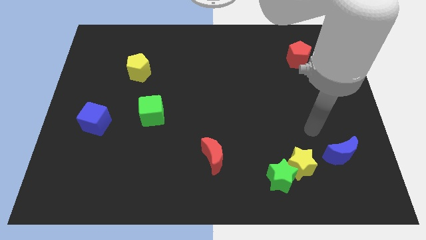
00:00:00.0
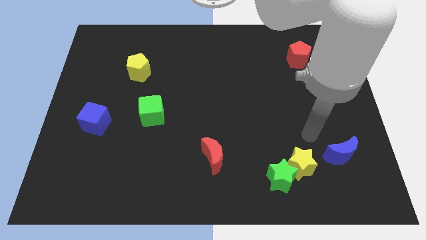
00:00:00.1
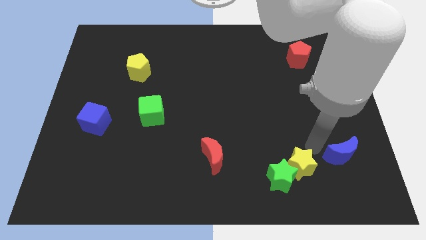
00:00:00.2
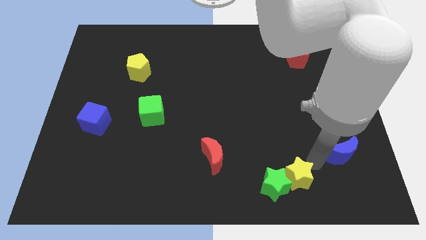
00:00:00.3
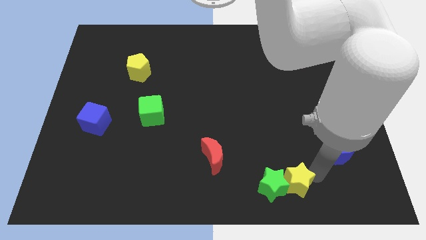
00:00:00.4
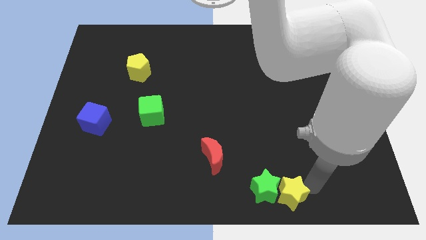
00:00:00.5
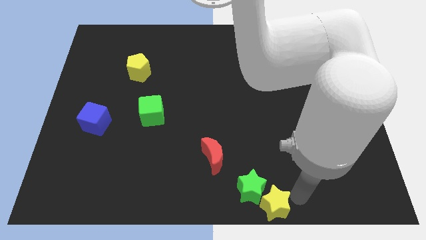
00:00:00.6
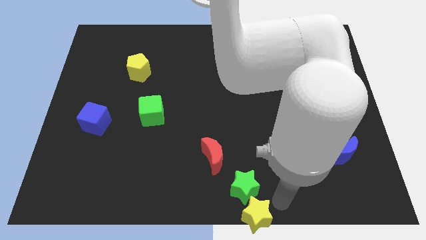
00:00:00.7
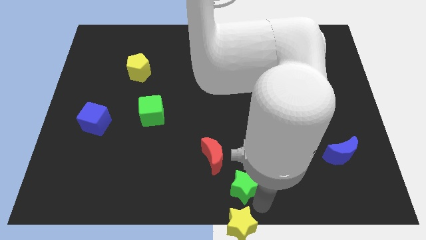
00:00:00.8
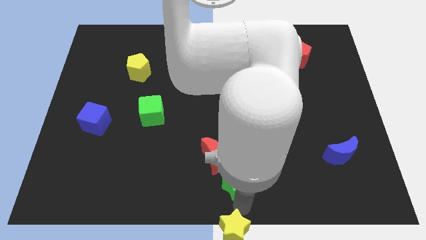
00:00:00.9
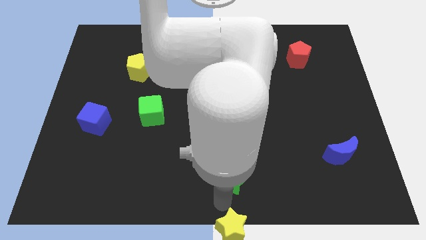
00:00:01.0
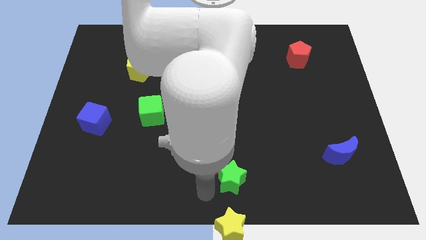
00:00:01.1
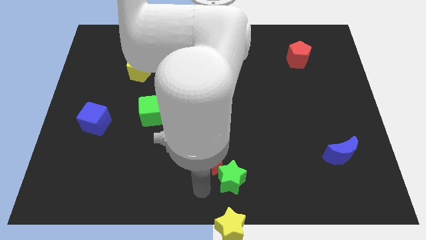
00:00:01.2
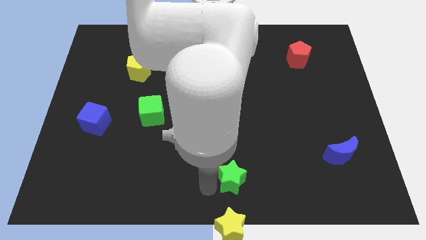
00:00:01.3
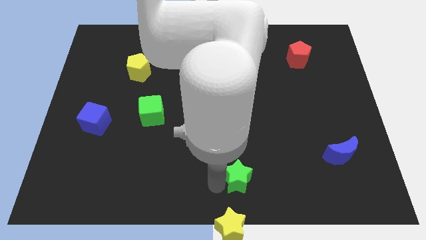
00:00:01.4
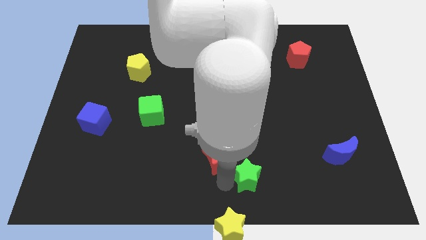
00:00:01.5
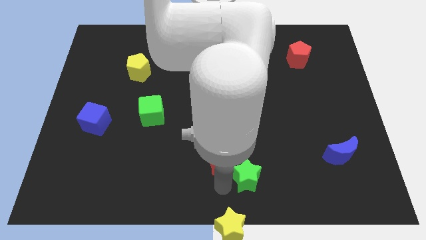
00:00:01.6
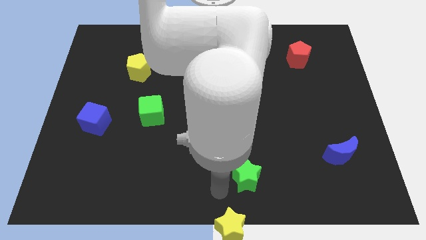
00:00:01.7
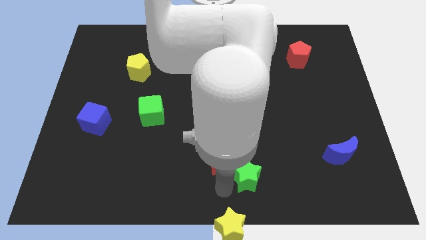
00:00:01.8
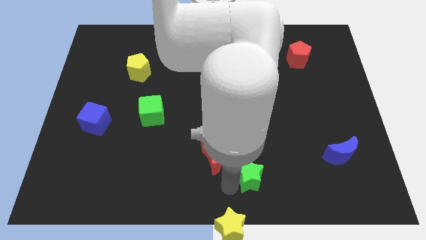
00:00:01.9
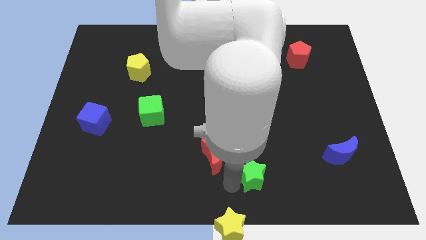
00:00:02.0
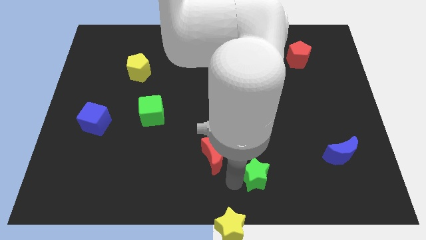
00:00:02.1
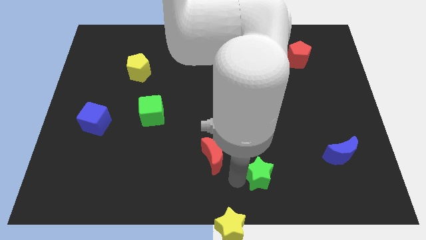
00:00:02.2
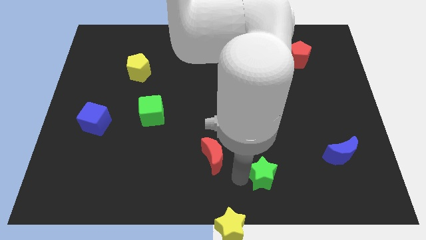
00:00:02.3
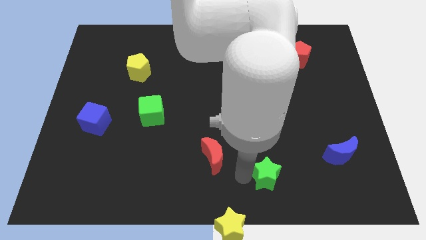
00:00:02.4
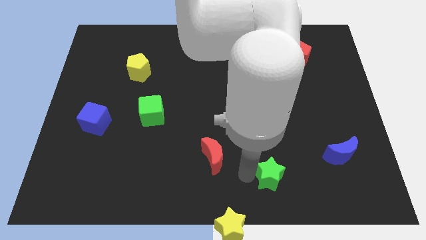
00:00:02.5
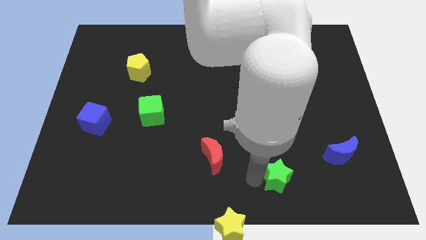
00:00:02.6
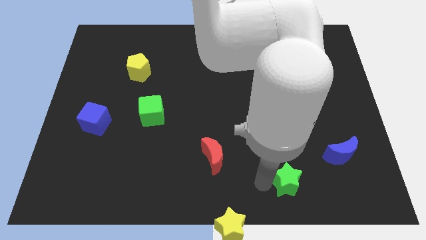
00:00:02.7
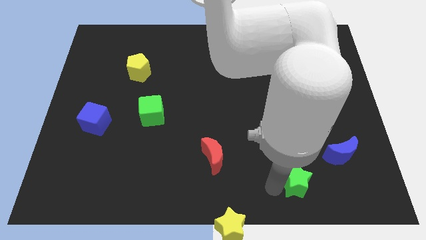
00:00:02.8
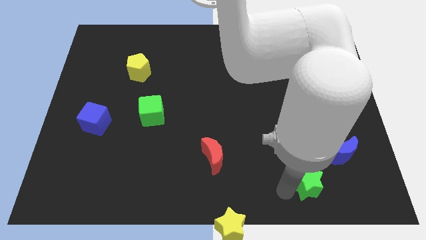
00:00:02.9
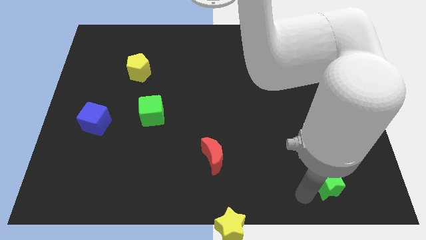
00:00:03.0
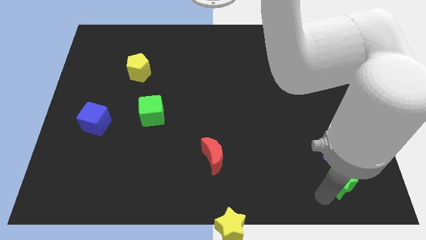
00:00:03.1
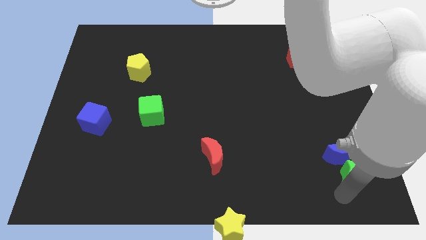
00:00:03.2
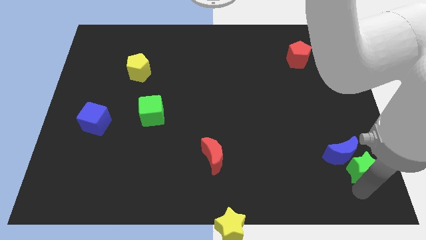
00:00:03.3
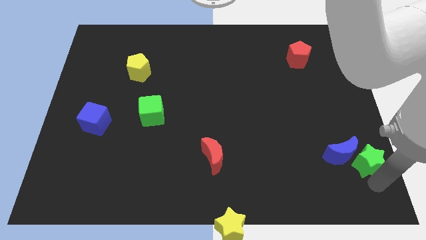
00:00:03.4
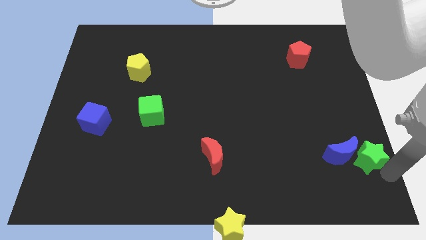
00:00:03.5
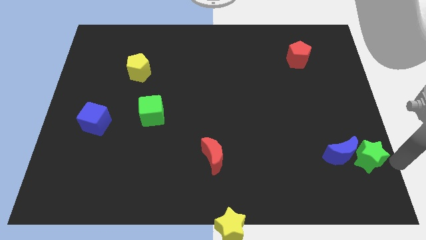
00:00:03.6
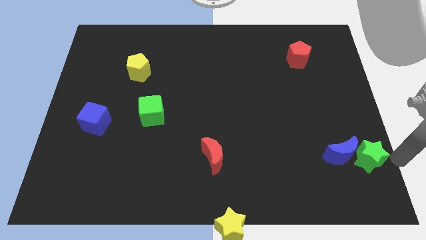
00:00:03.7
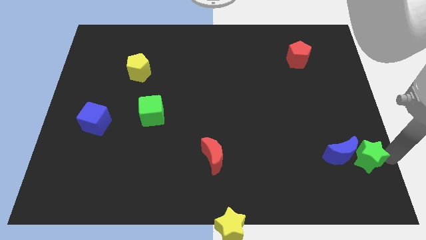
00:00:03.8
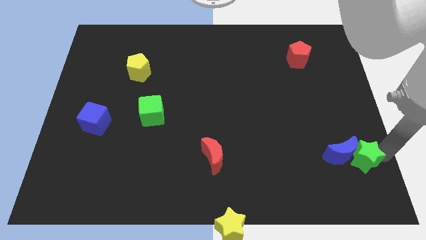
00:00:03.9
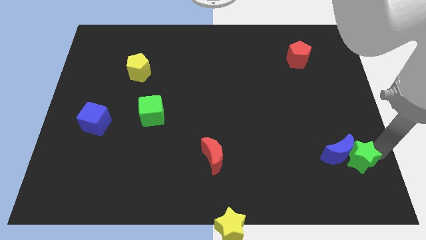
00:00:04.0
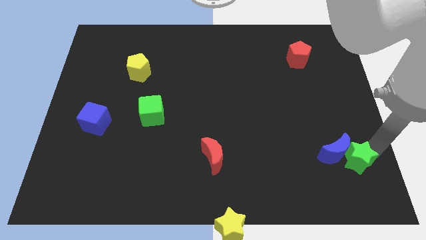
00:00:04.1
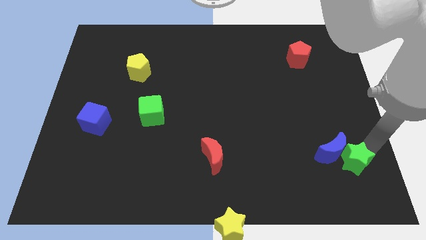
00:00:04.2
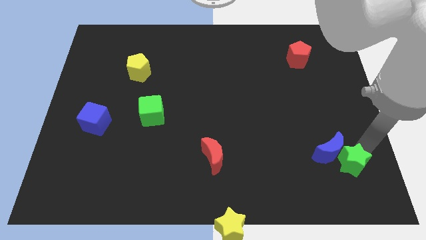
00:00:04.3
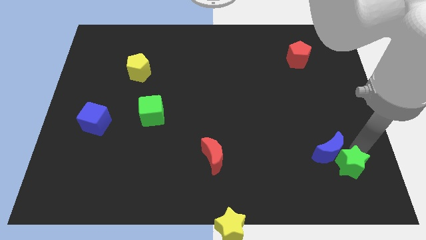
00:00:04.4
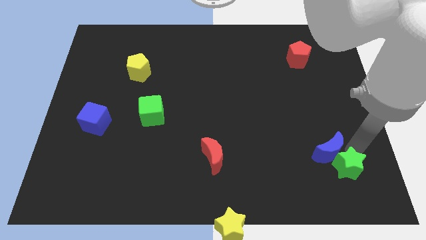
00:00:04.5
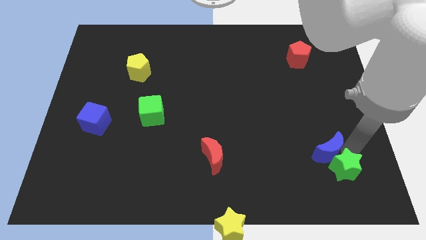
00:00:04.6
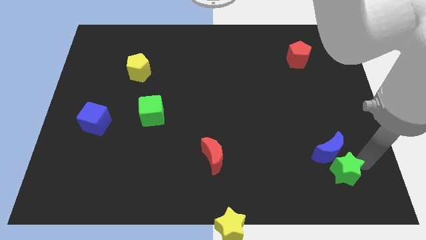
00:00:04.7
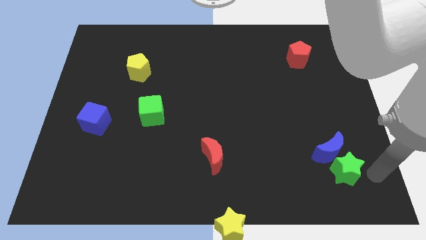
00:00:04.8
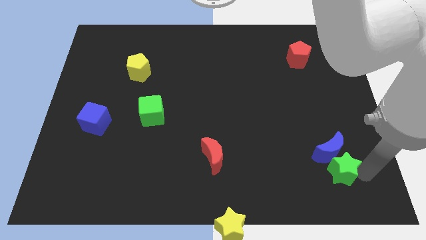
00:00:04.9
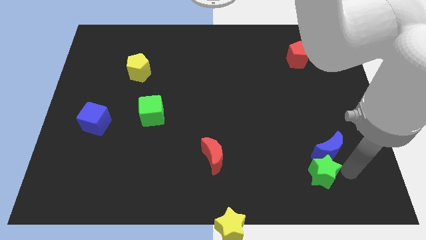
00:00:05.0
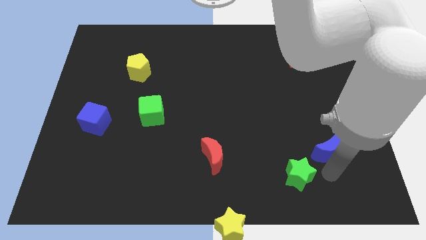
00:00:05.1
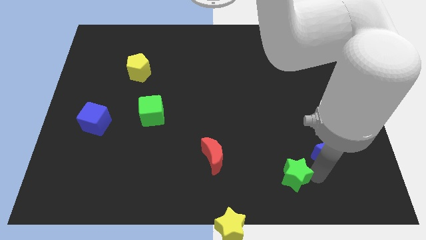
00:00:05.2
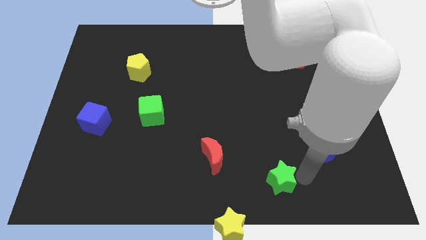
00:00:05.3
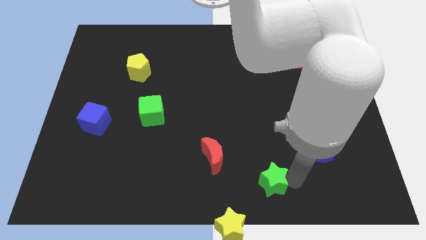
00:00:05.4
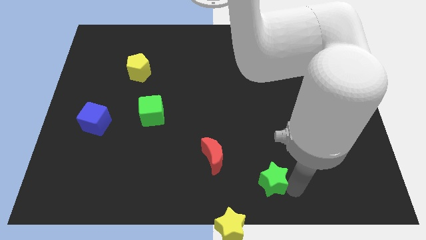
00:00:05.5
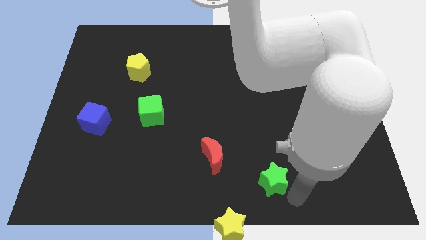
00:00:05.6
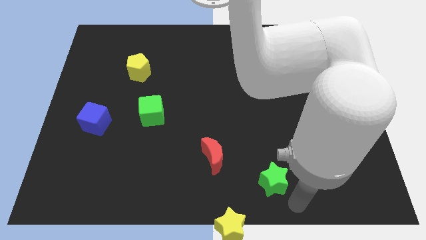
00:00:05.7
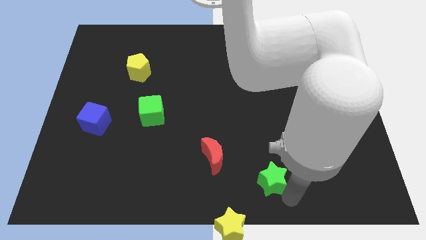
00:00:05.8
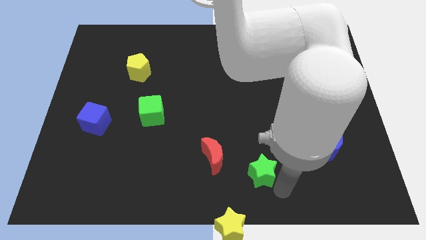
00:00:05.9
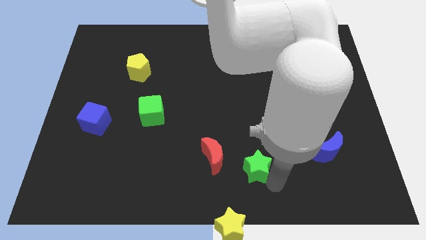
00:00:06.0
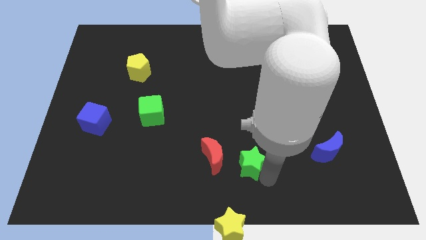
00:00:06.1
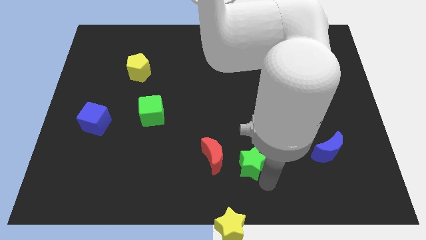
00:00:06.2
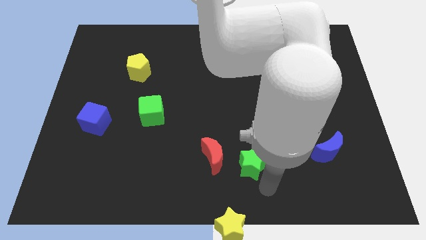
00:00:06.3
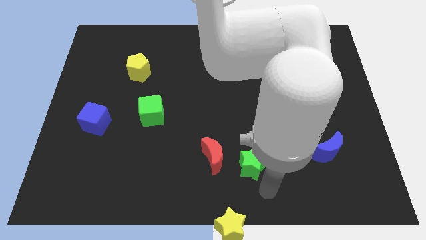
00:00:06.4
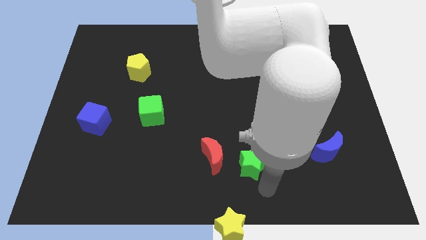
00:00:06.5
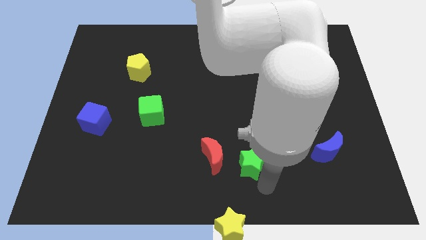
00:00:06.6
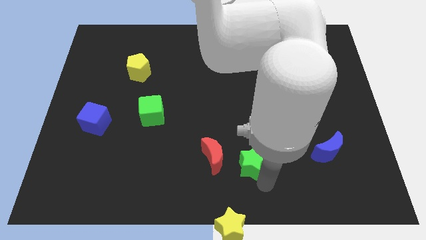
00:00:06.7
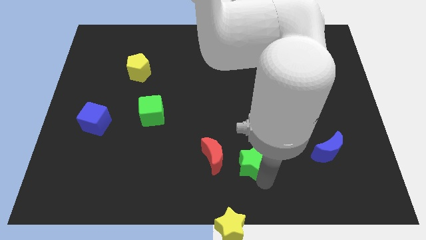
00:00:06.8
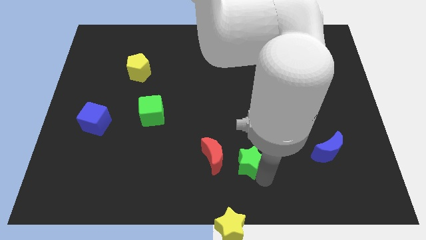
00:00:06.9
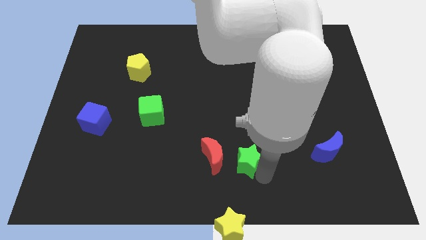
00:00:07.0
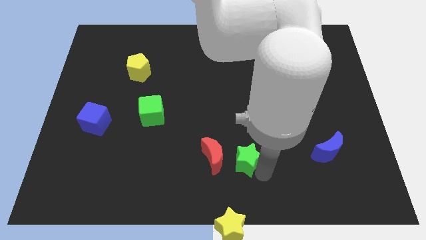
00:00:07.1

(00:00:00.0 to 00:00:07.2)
push the green star somewhat up and then to the left

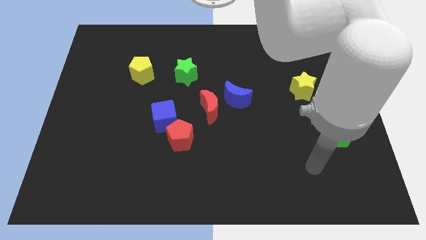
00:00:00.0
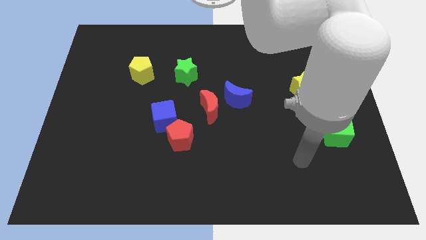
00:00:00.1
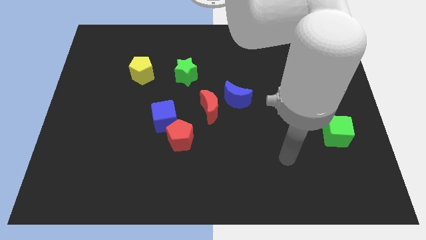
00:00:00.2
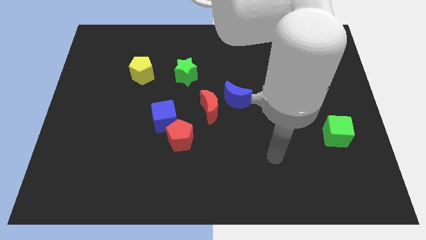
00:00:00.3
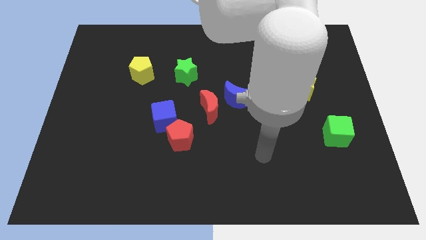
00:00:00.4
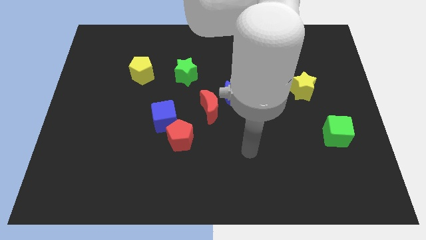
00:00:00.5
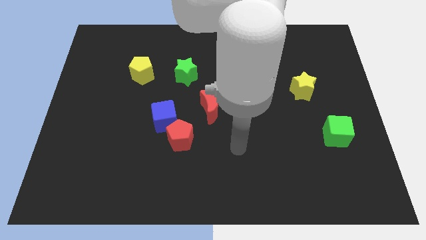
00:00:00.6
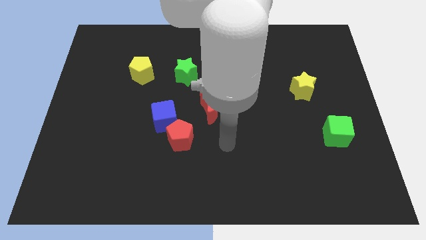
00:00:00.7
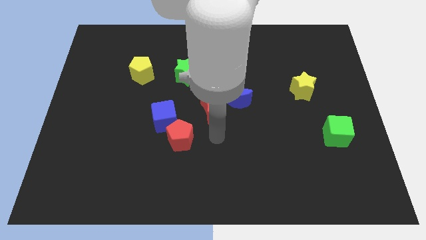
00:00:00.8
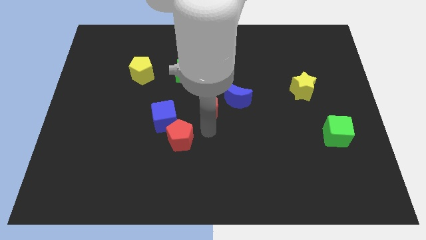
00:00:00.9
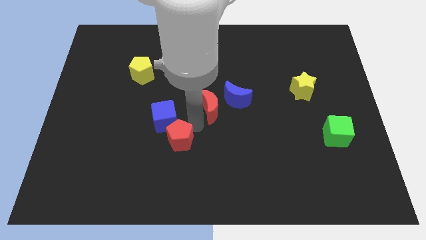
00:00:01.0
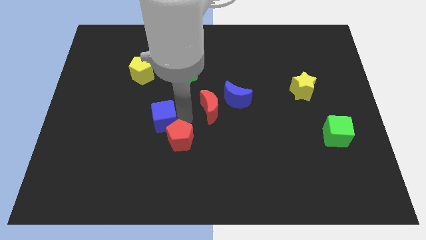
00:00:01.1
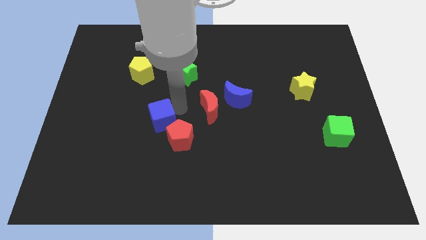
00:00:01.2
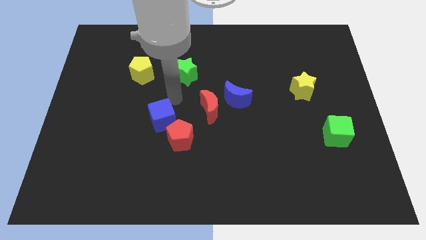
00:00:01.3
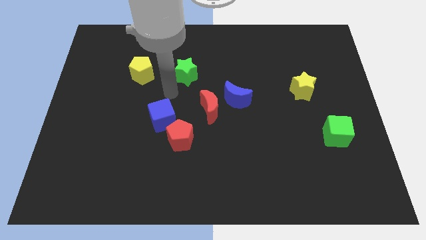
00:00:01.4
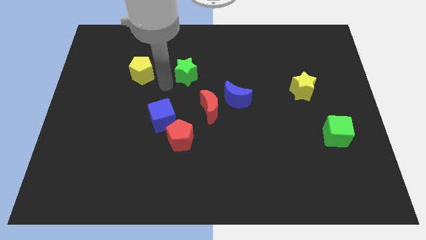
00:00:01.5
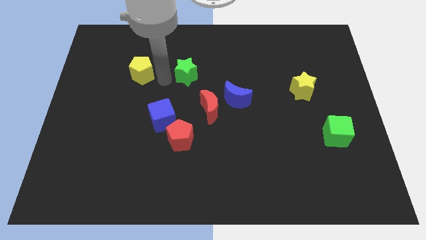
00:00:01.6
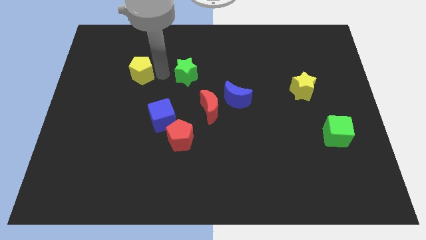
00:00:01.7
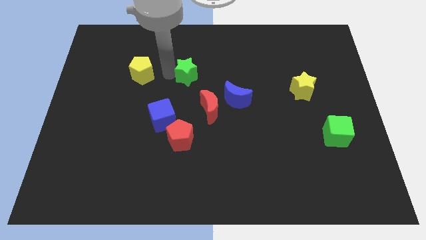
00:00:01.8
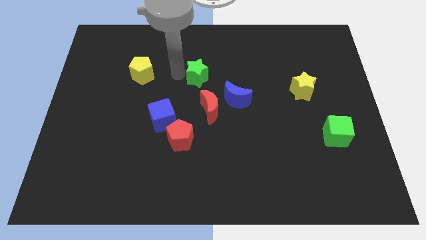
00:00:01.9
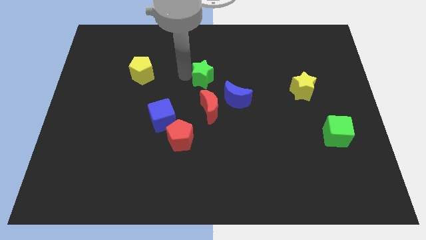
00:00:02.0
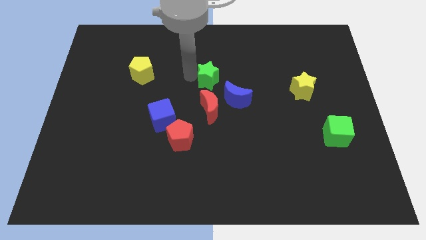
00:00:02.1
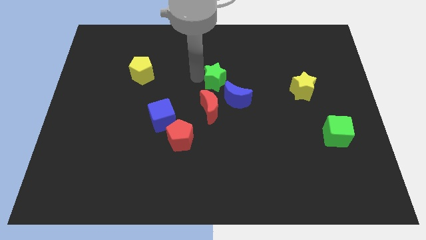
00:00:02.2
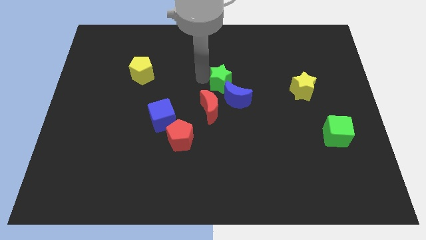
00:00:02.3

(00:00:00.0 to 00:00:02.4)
slightly move the green star diagonally down and right
